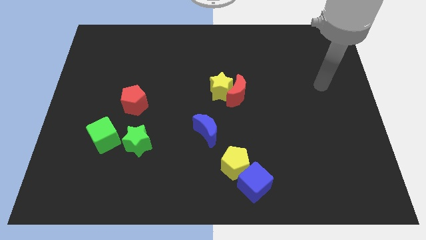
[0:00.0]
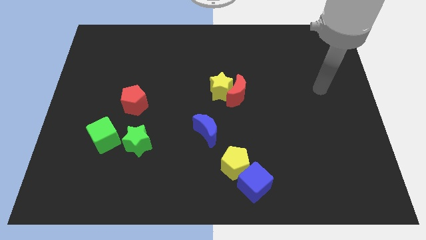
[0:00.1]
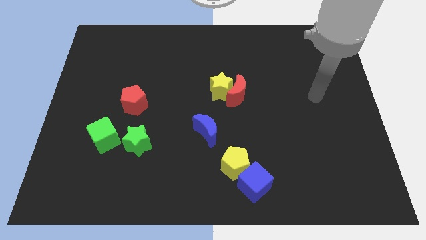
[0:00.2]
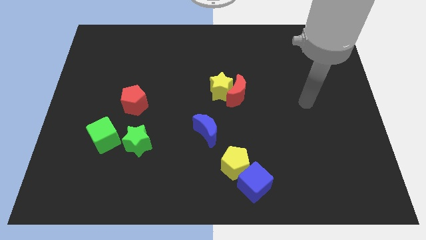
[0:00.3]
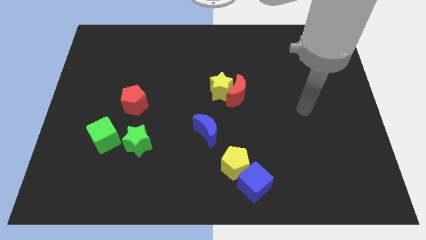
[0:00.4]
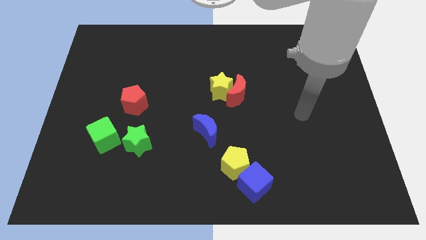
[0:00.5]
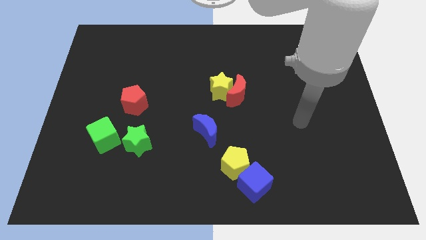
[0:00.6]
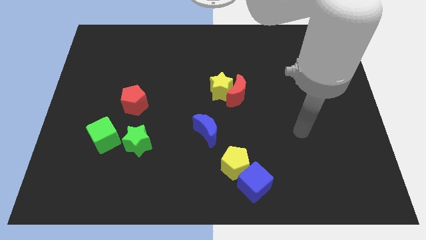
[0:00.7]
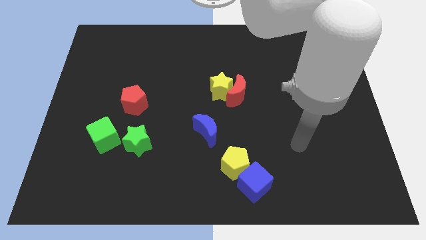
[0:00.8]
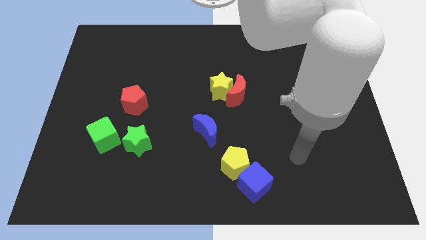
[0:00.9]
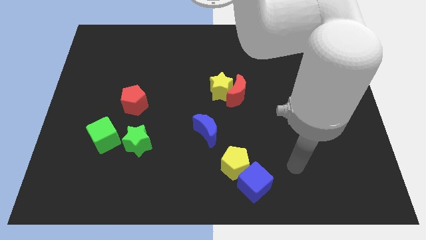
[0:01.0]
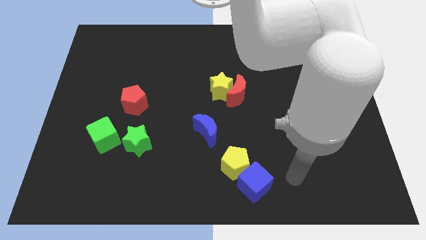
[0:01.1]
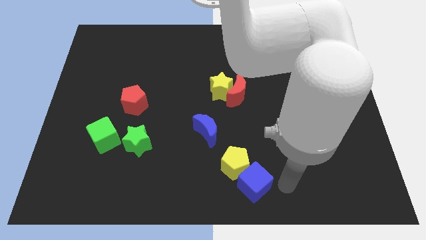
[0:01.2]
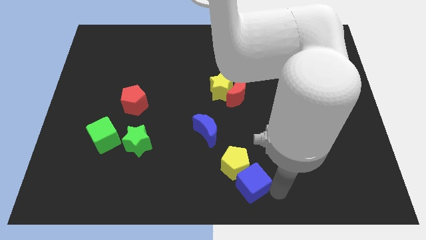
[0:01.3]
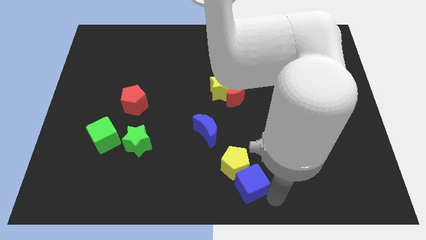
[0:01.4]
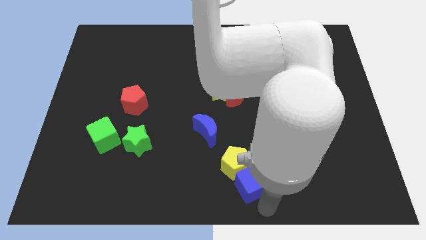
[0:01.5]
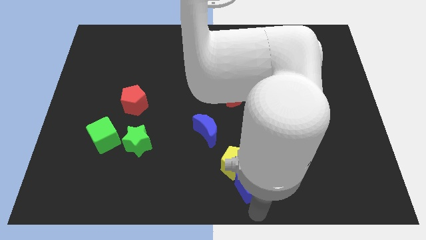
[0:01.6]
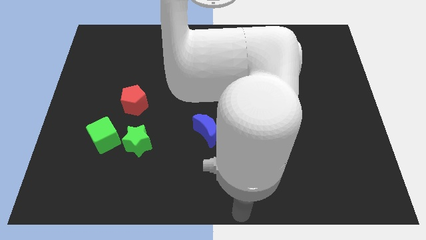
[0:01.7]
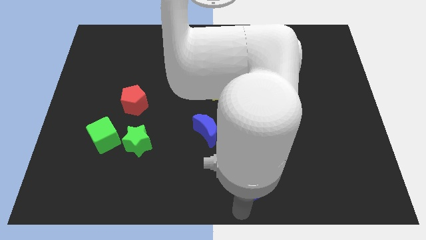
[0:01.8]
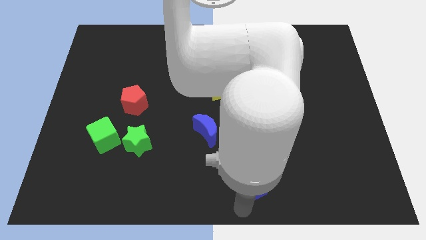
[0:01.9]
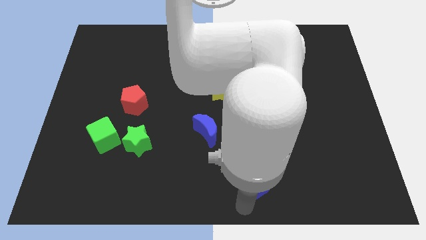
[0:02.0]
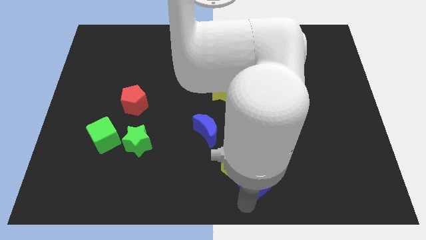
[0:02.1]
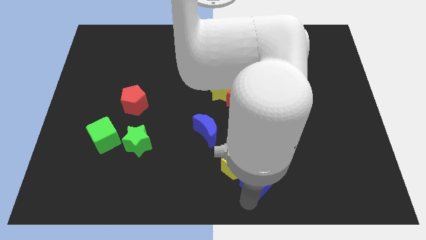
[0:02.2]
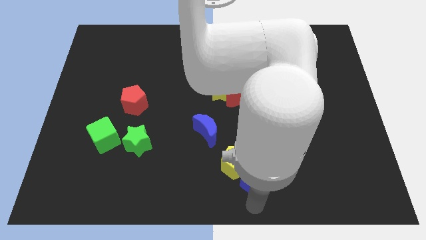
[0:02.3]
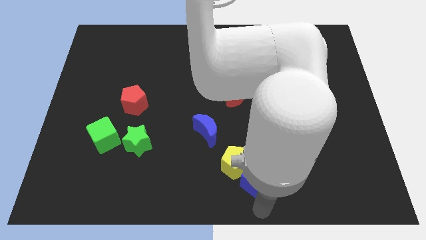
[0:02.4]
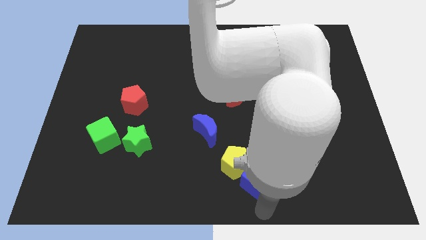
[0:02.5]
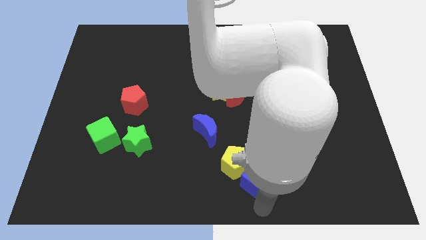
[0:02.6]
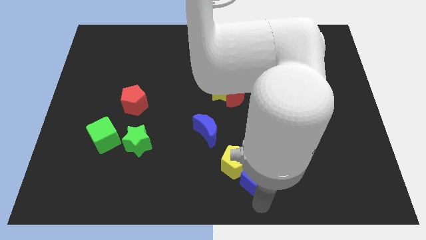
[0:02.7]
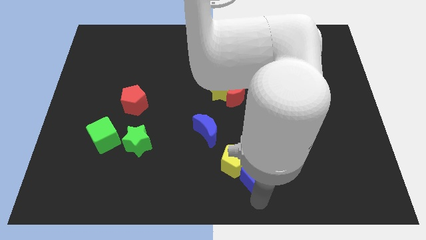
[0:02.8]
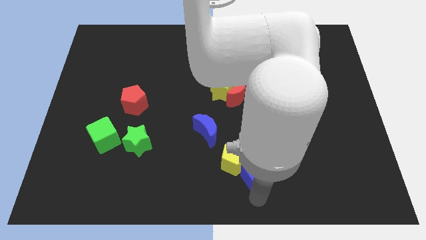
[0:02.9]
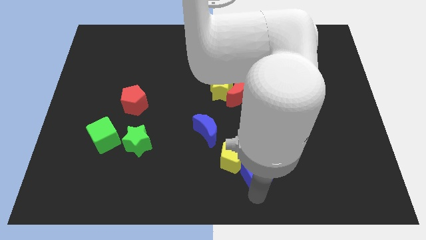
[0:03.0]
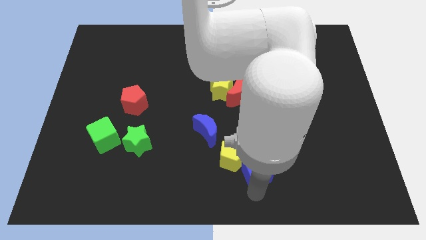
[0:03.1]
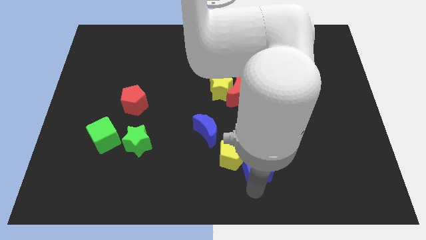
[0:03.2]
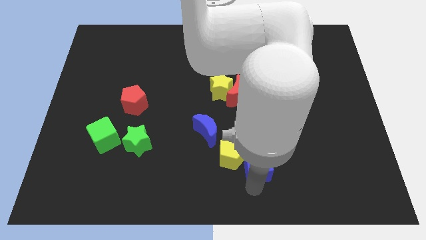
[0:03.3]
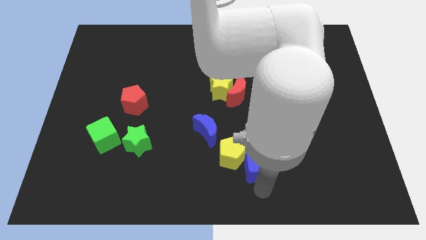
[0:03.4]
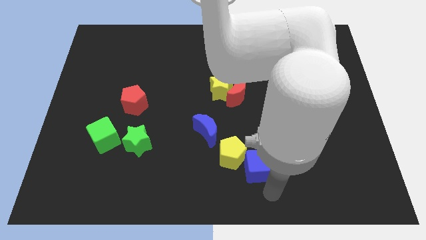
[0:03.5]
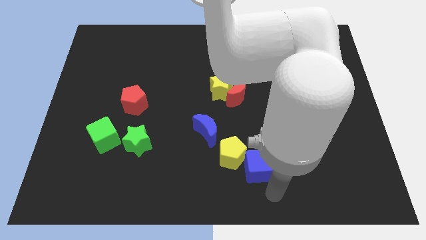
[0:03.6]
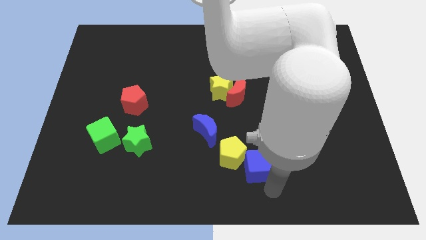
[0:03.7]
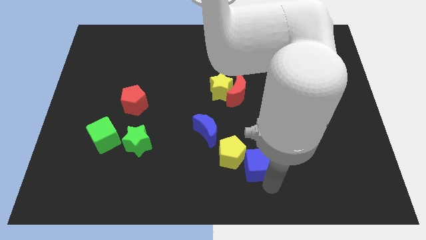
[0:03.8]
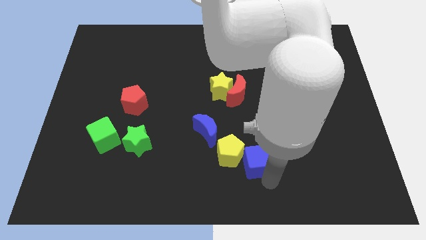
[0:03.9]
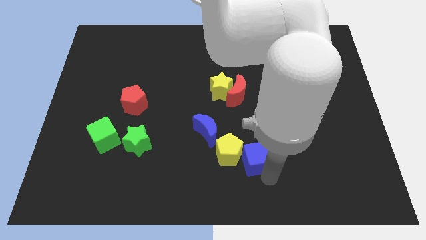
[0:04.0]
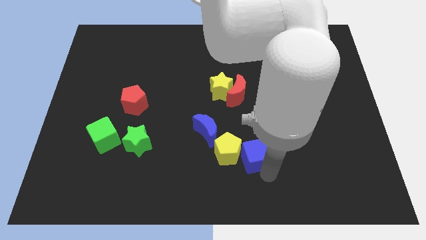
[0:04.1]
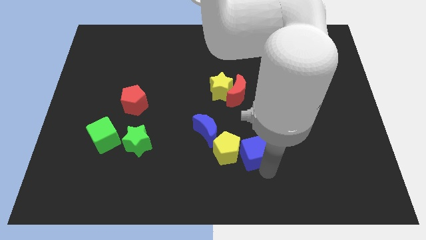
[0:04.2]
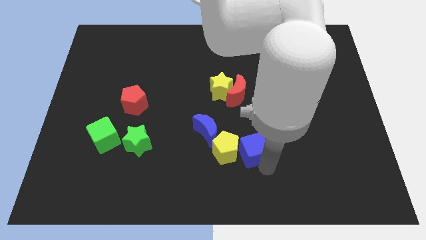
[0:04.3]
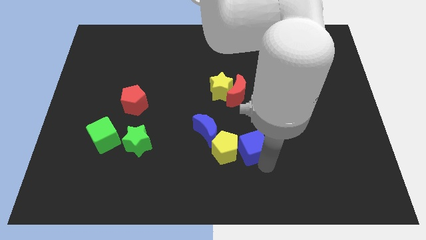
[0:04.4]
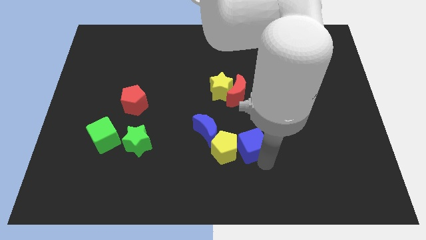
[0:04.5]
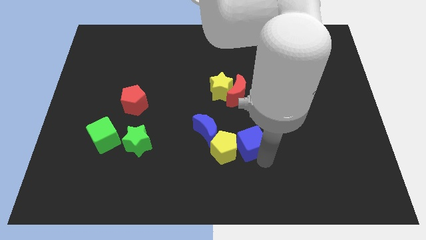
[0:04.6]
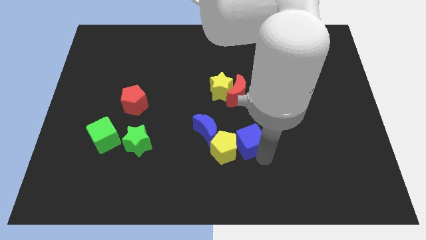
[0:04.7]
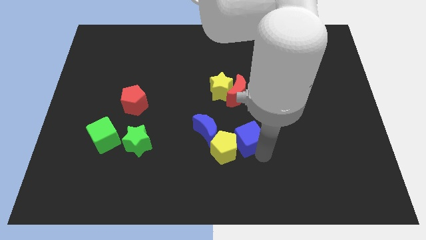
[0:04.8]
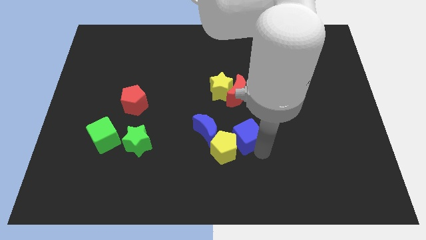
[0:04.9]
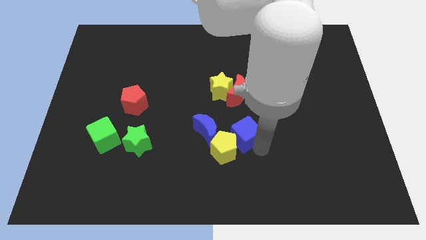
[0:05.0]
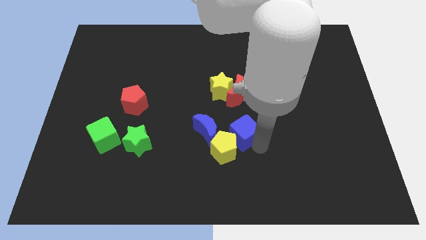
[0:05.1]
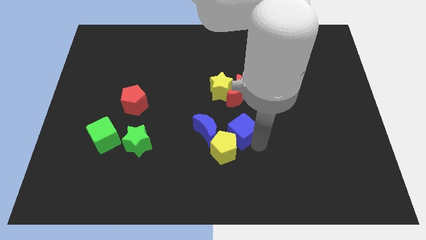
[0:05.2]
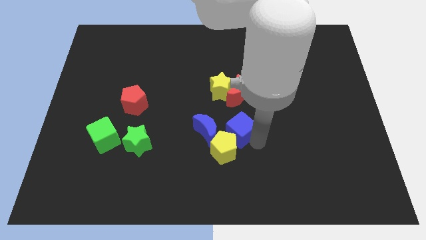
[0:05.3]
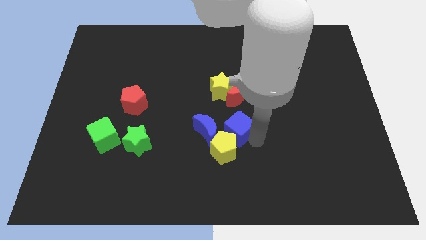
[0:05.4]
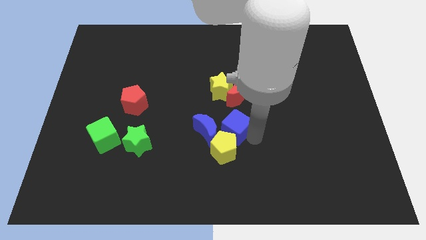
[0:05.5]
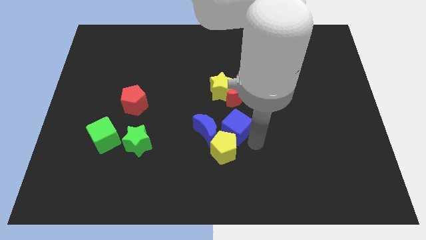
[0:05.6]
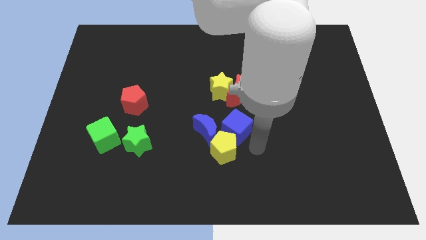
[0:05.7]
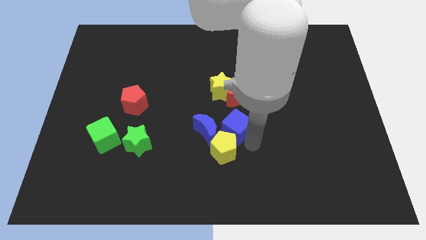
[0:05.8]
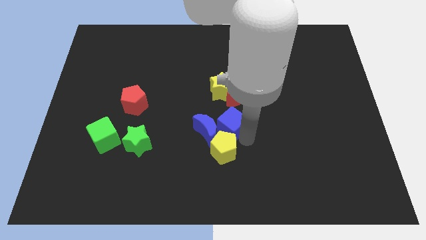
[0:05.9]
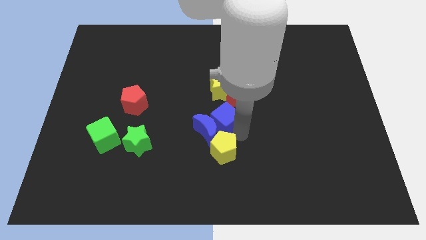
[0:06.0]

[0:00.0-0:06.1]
move the blue cube diagonally down and to the left of the red moon

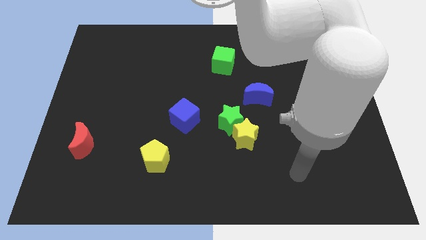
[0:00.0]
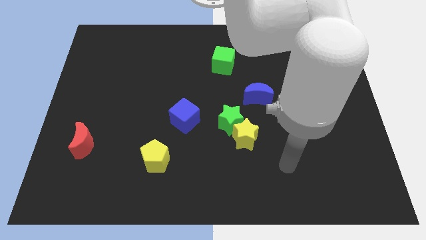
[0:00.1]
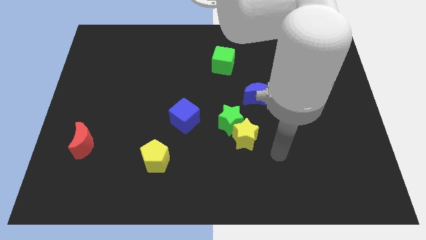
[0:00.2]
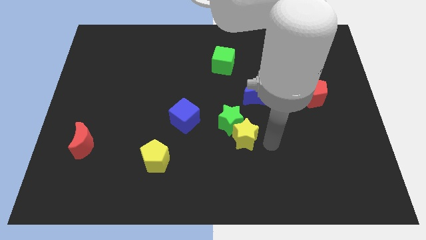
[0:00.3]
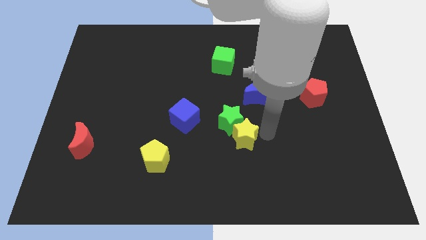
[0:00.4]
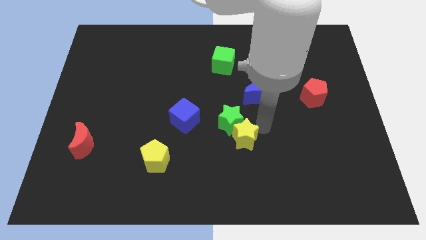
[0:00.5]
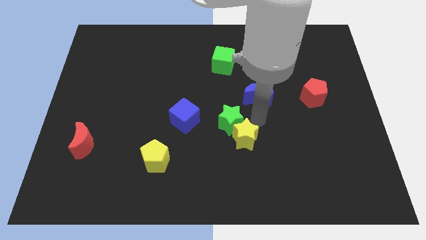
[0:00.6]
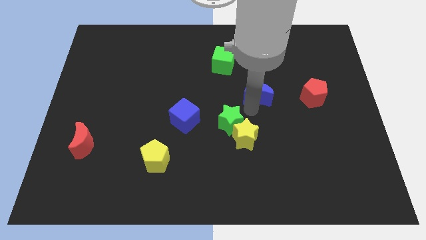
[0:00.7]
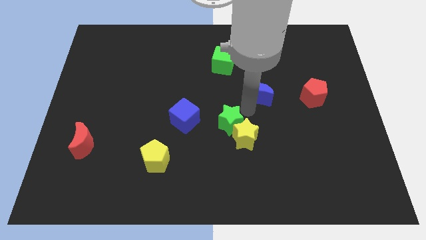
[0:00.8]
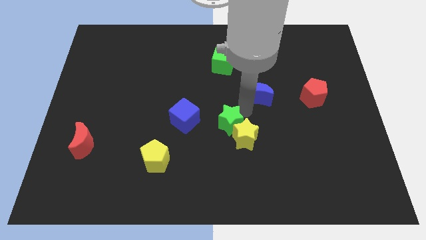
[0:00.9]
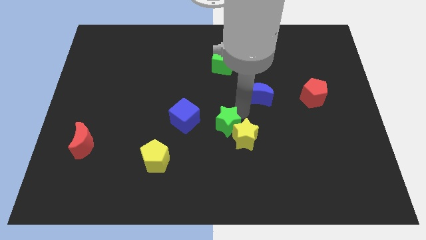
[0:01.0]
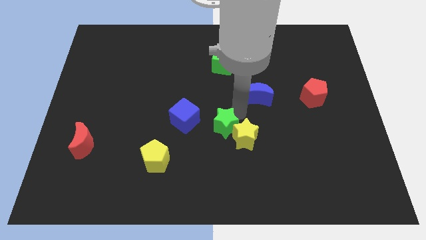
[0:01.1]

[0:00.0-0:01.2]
move the green star to the bottom right of the blue cube
